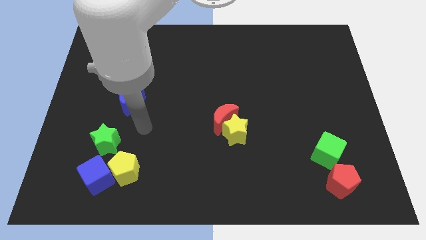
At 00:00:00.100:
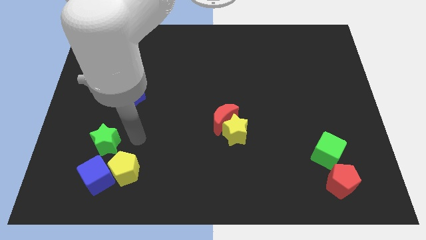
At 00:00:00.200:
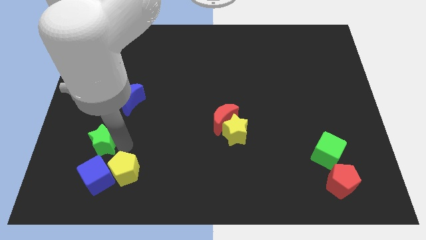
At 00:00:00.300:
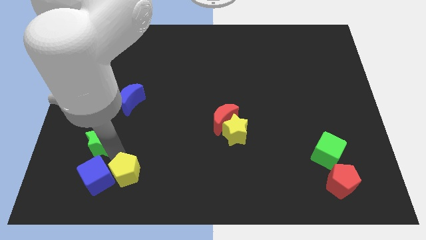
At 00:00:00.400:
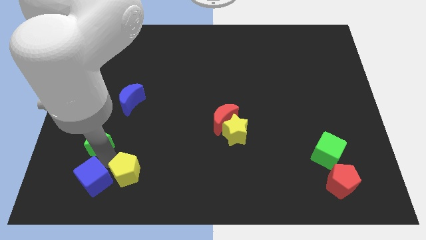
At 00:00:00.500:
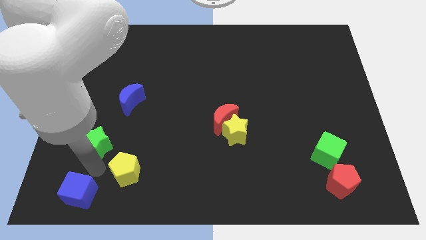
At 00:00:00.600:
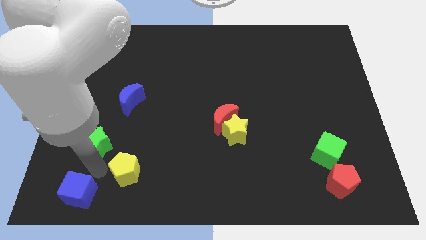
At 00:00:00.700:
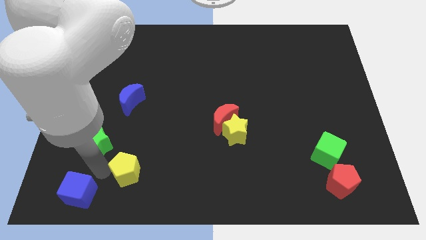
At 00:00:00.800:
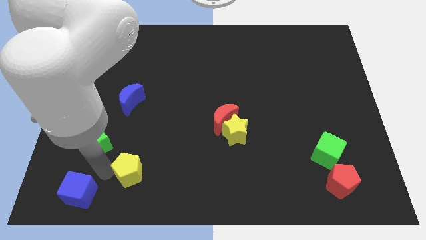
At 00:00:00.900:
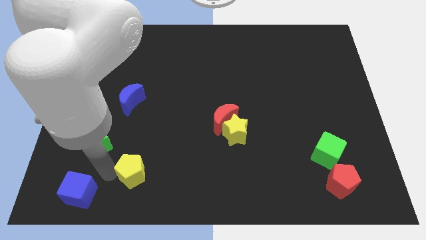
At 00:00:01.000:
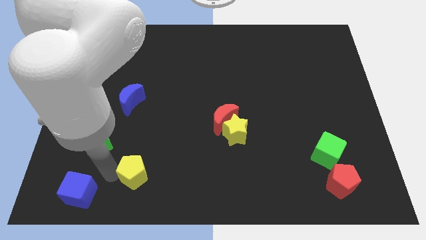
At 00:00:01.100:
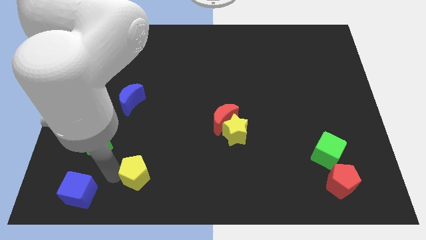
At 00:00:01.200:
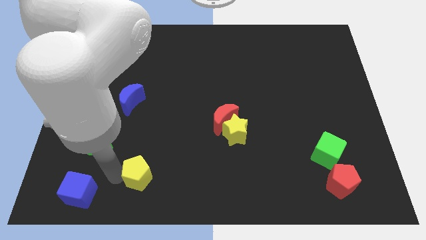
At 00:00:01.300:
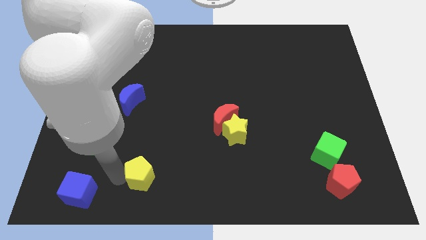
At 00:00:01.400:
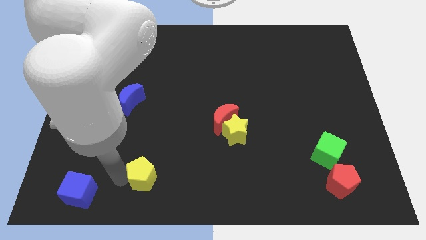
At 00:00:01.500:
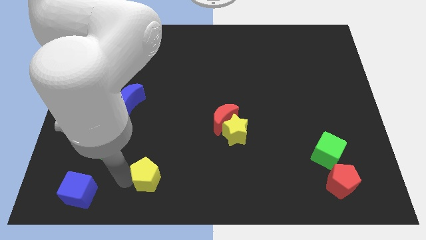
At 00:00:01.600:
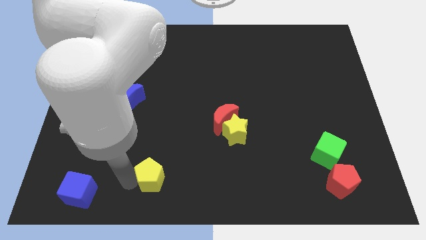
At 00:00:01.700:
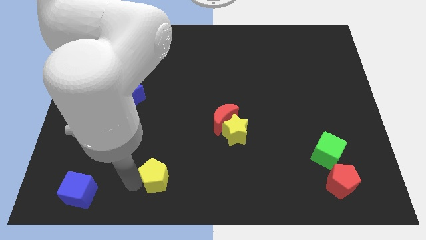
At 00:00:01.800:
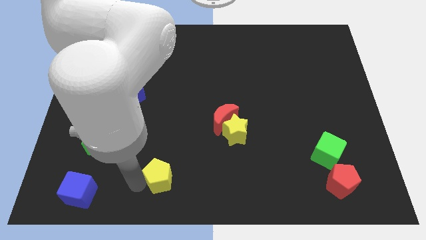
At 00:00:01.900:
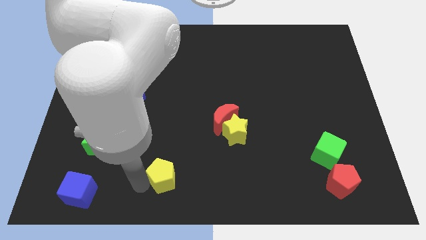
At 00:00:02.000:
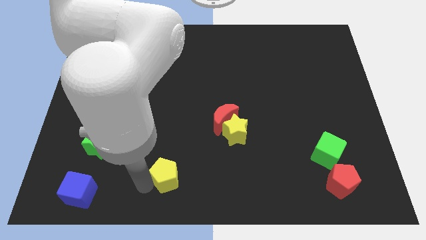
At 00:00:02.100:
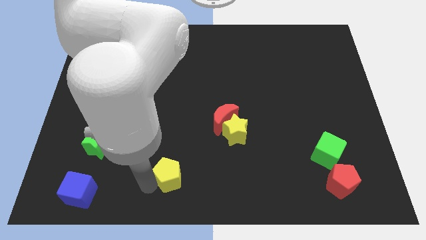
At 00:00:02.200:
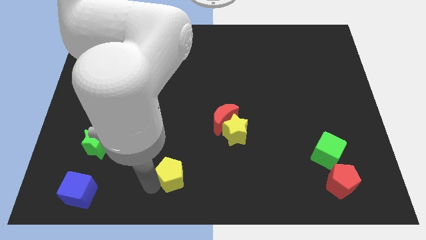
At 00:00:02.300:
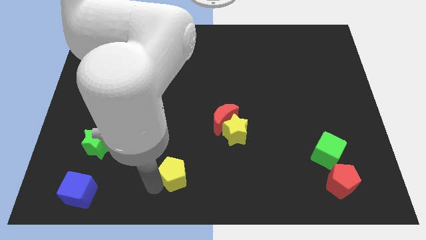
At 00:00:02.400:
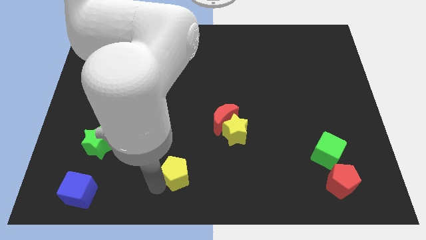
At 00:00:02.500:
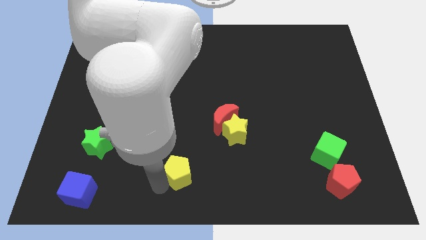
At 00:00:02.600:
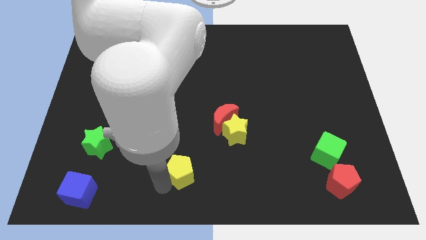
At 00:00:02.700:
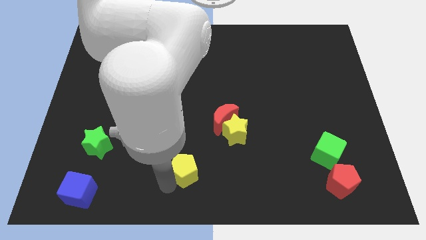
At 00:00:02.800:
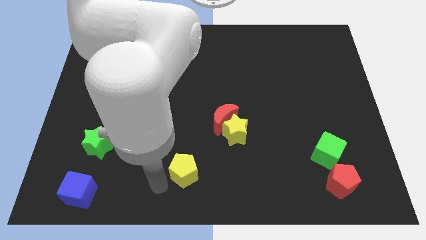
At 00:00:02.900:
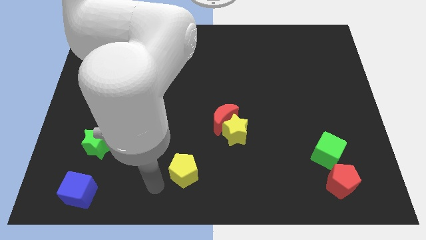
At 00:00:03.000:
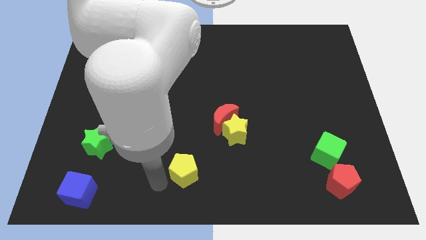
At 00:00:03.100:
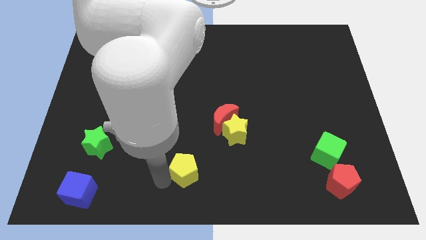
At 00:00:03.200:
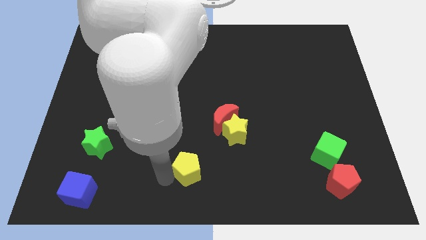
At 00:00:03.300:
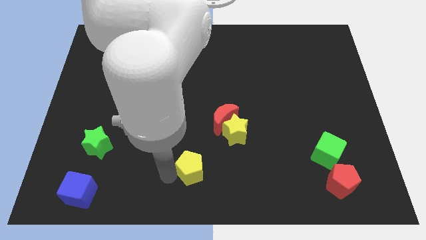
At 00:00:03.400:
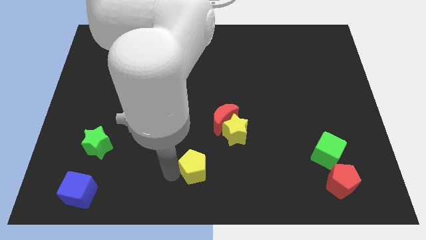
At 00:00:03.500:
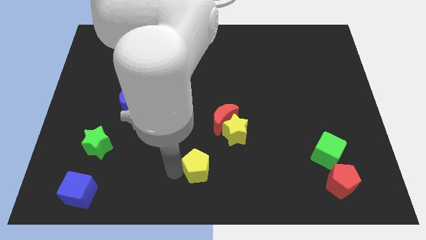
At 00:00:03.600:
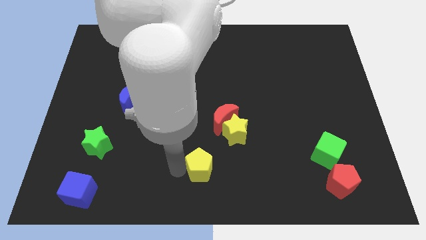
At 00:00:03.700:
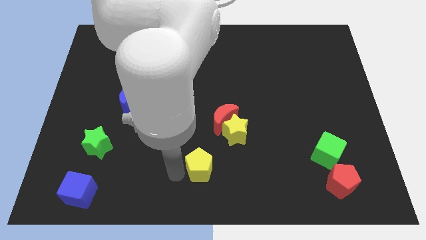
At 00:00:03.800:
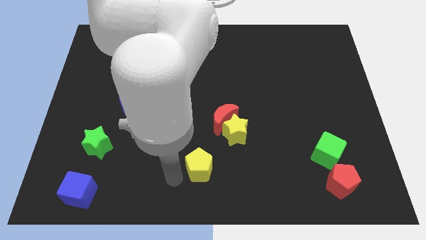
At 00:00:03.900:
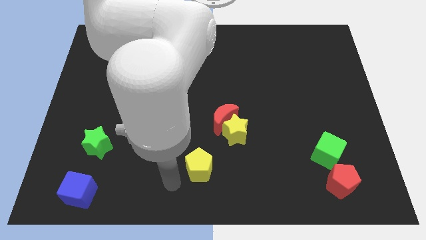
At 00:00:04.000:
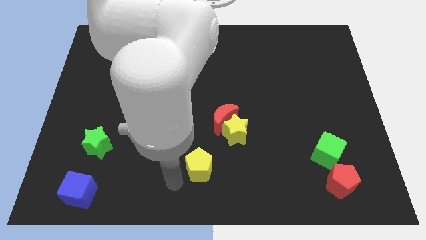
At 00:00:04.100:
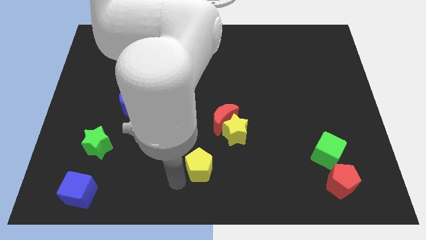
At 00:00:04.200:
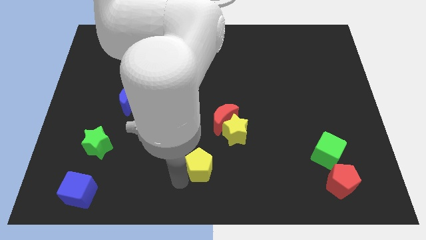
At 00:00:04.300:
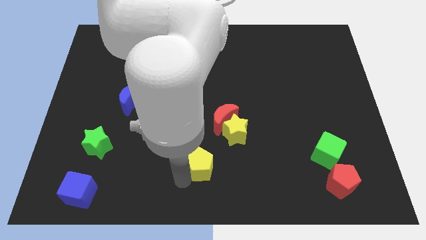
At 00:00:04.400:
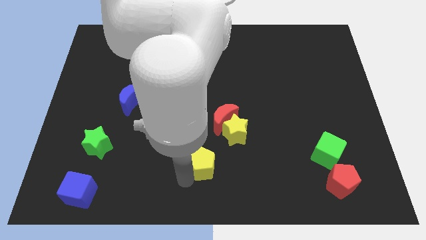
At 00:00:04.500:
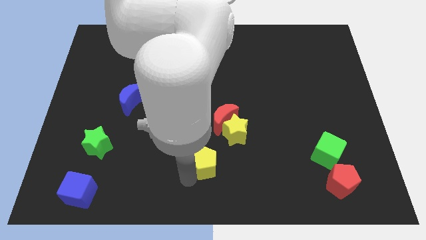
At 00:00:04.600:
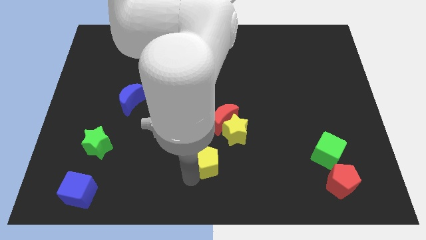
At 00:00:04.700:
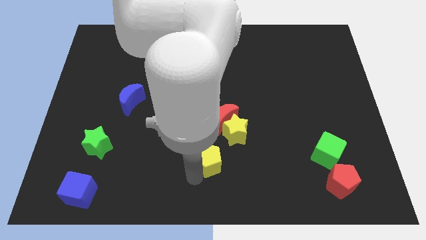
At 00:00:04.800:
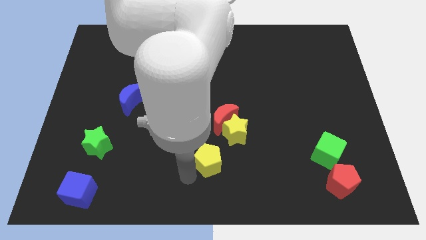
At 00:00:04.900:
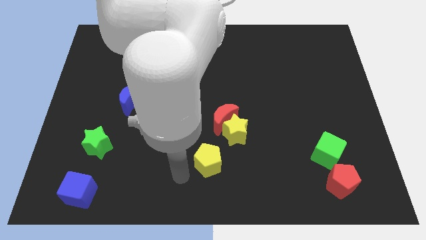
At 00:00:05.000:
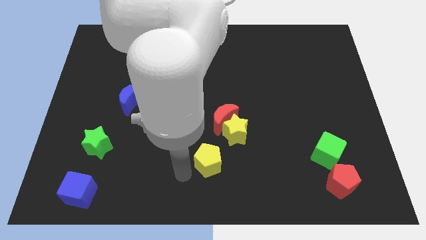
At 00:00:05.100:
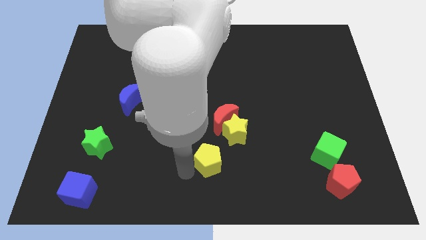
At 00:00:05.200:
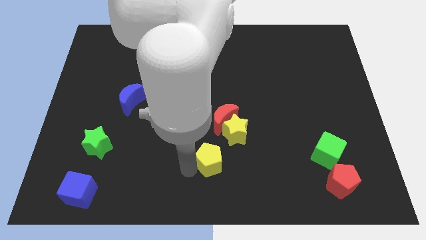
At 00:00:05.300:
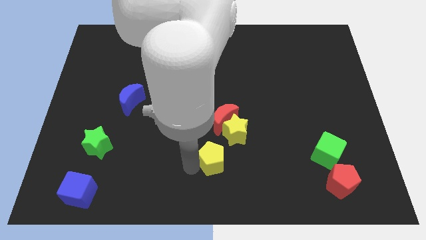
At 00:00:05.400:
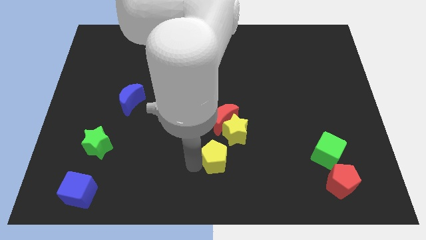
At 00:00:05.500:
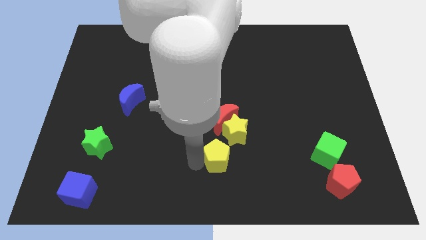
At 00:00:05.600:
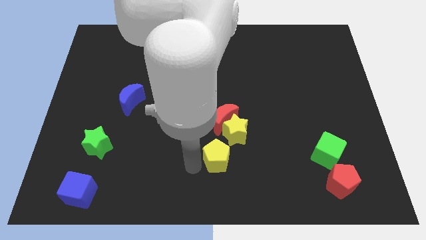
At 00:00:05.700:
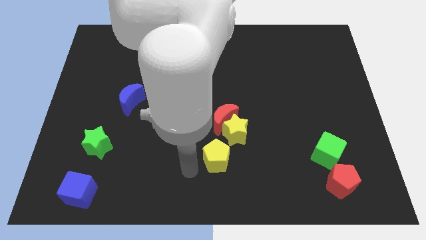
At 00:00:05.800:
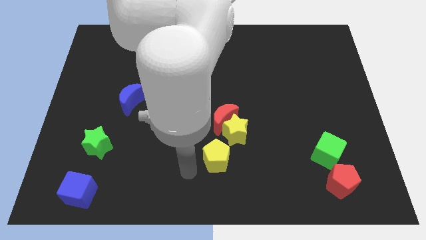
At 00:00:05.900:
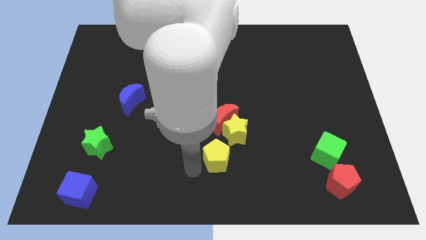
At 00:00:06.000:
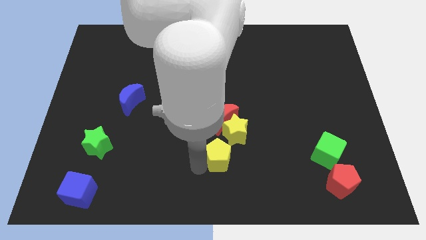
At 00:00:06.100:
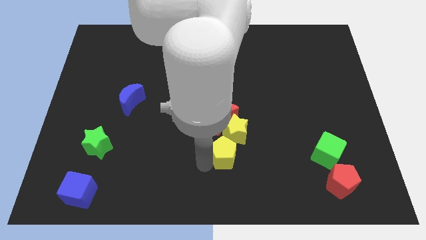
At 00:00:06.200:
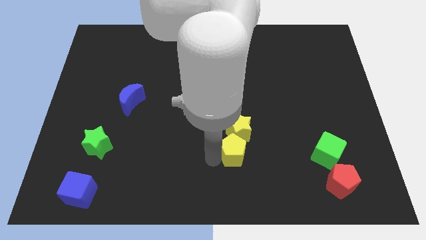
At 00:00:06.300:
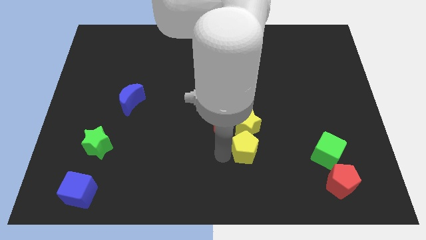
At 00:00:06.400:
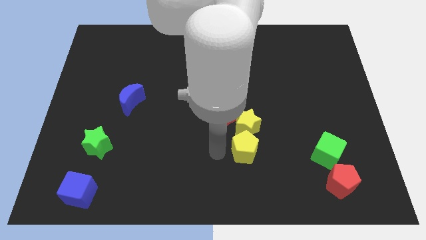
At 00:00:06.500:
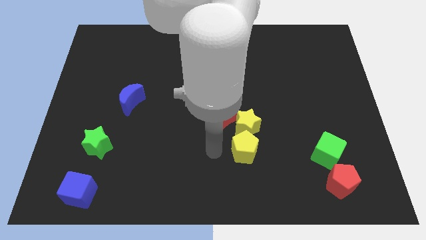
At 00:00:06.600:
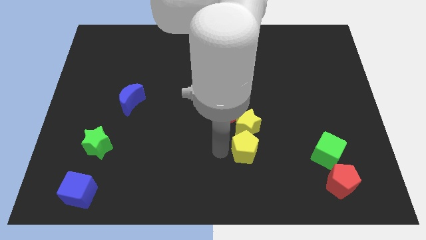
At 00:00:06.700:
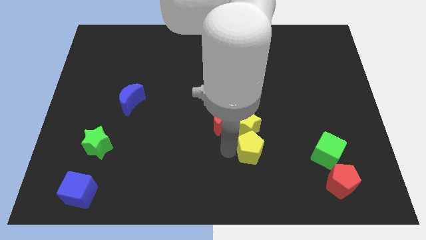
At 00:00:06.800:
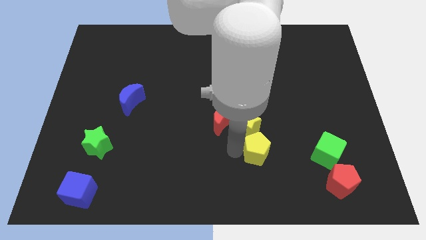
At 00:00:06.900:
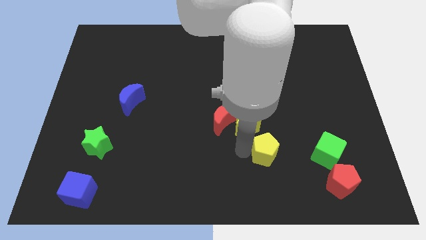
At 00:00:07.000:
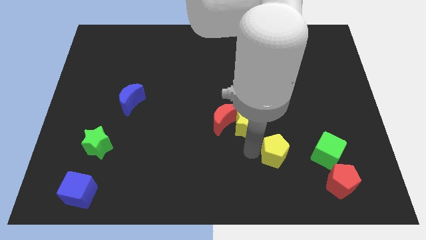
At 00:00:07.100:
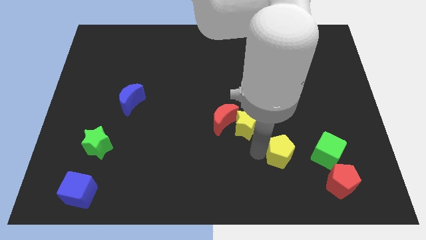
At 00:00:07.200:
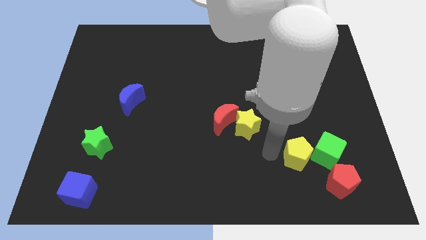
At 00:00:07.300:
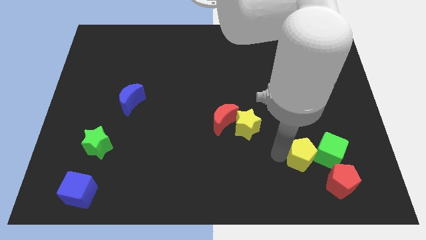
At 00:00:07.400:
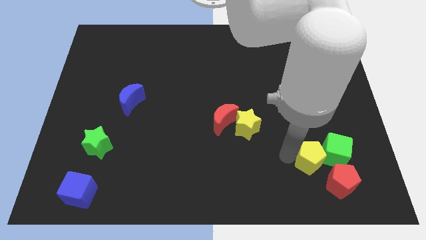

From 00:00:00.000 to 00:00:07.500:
put the yellow pentagon towards the green cube
